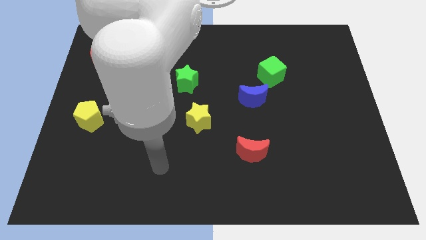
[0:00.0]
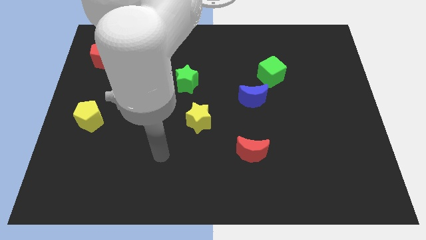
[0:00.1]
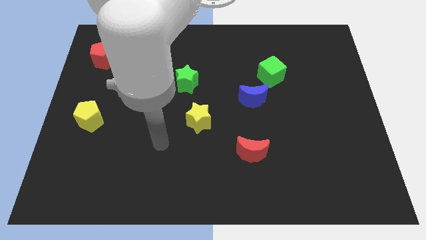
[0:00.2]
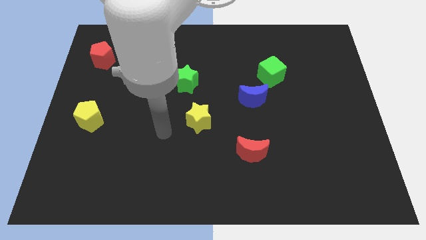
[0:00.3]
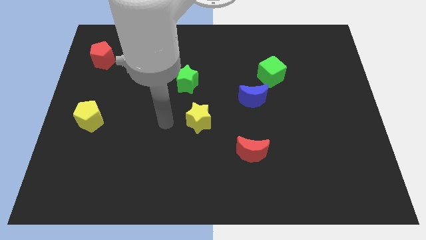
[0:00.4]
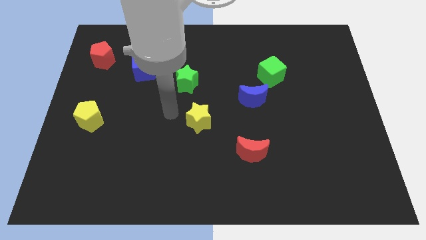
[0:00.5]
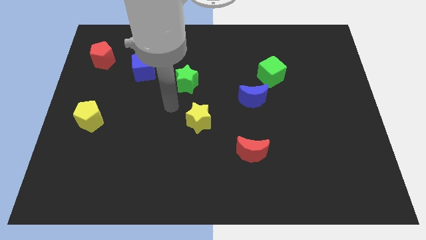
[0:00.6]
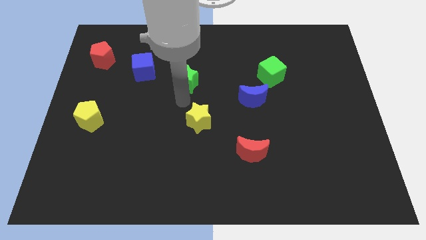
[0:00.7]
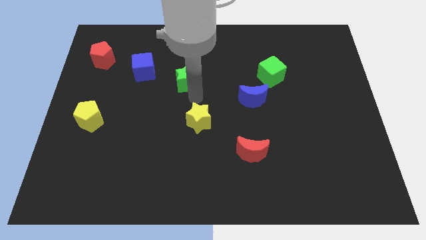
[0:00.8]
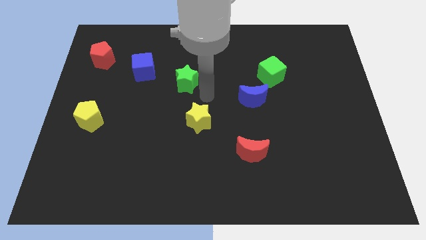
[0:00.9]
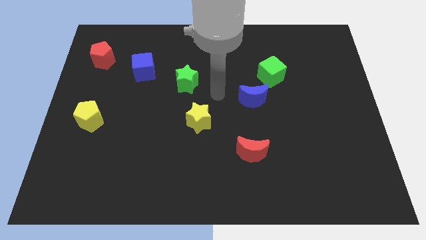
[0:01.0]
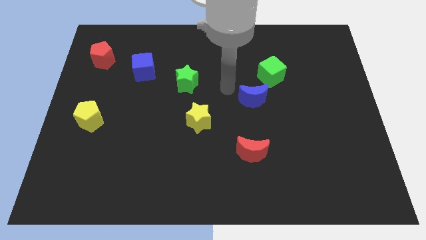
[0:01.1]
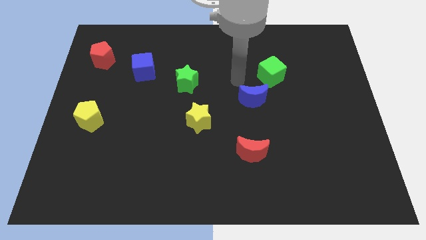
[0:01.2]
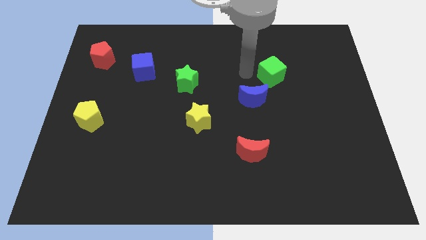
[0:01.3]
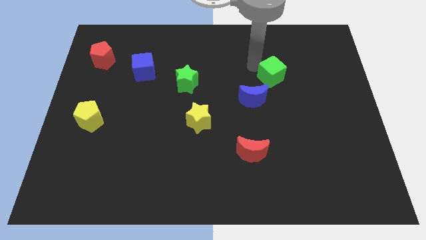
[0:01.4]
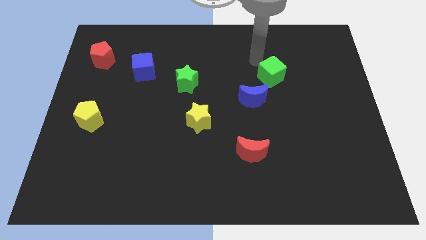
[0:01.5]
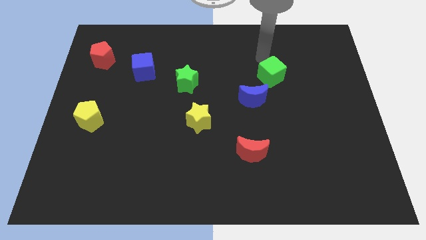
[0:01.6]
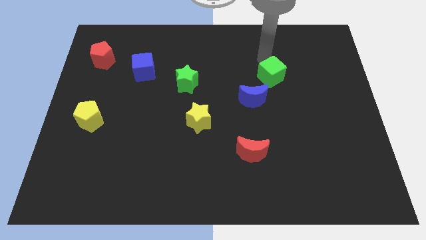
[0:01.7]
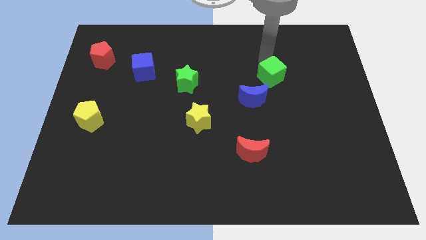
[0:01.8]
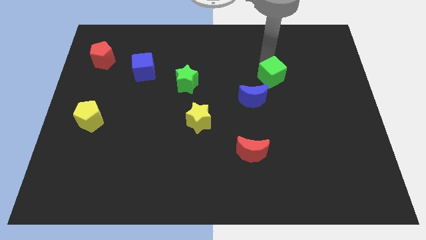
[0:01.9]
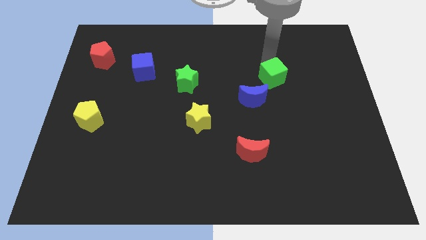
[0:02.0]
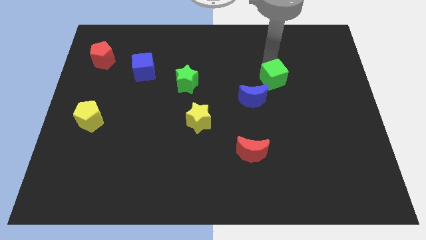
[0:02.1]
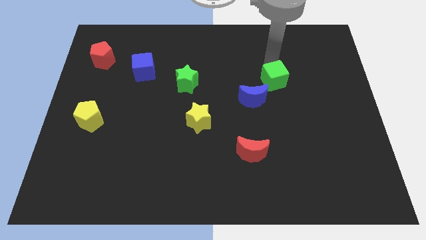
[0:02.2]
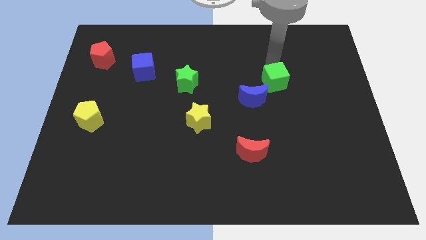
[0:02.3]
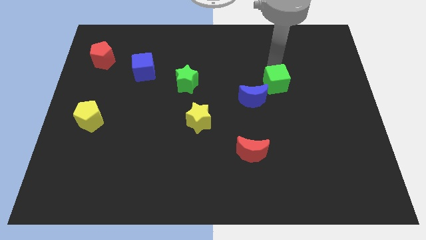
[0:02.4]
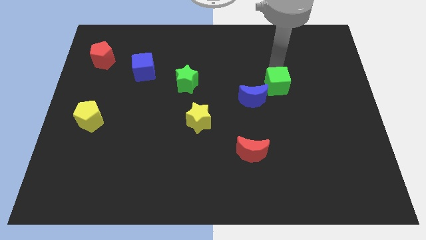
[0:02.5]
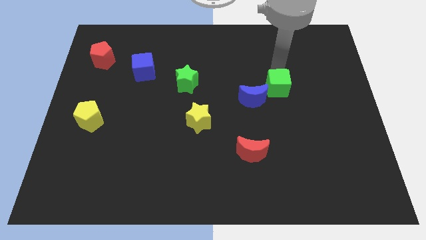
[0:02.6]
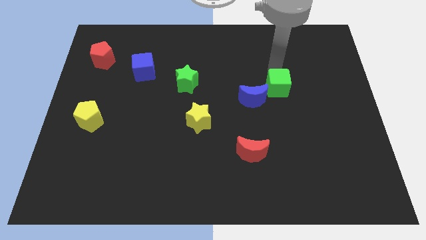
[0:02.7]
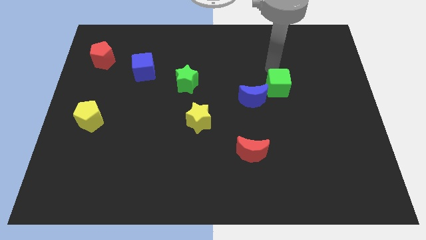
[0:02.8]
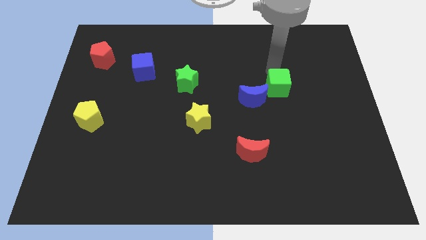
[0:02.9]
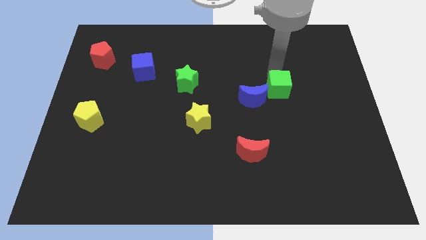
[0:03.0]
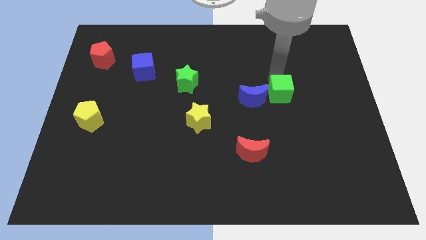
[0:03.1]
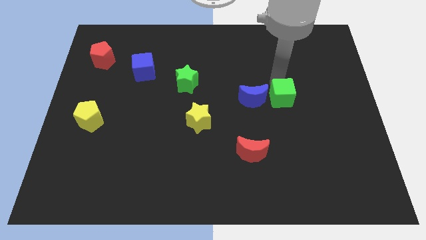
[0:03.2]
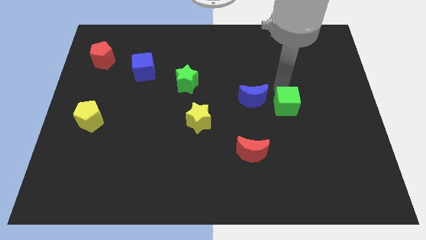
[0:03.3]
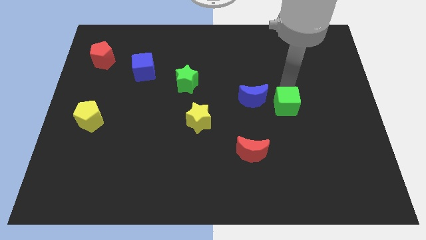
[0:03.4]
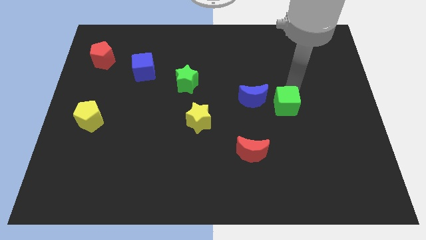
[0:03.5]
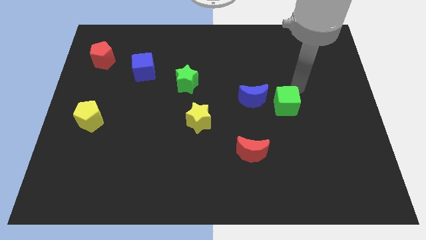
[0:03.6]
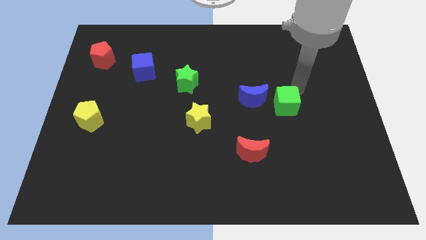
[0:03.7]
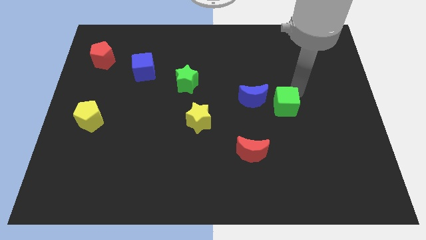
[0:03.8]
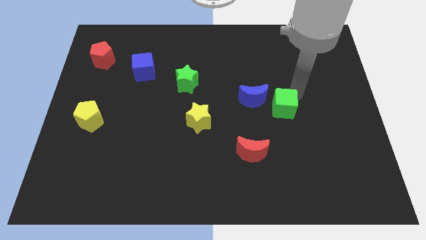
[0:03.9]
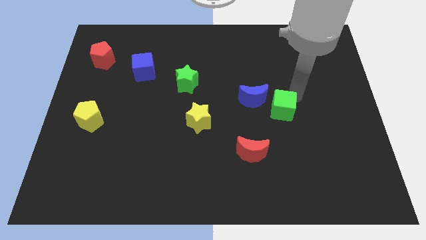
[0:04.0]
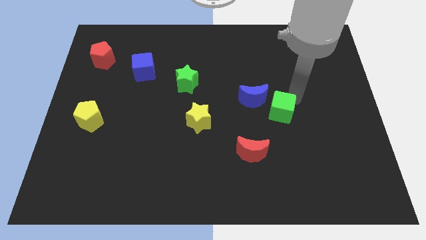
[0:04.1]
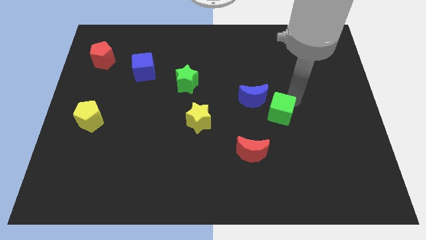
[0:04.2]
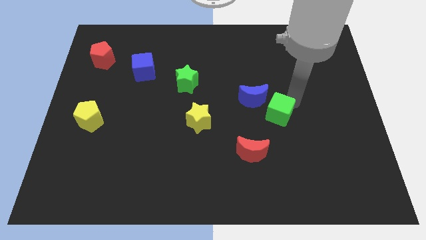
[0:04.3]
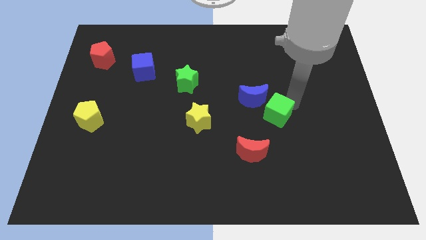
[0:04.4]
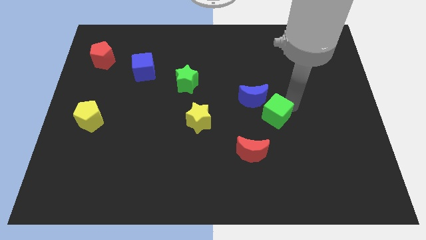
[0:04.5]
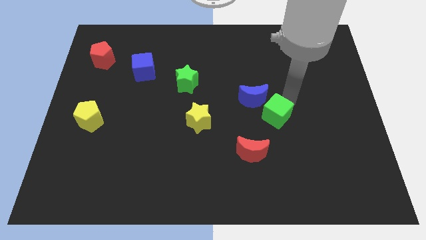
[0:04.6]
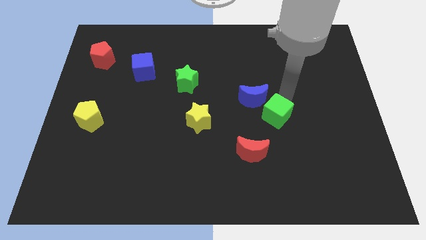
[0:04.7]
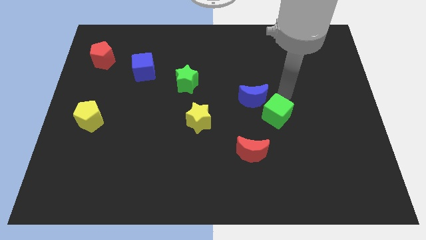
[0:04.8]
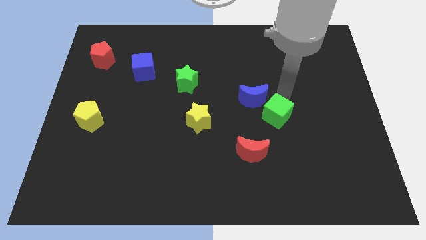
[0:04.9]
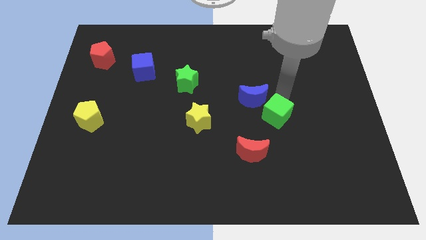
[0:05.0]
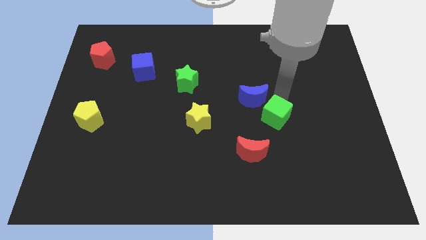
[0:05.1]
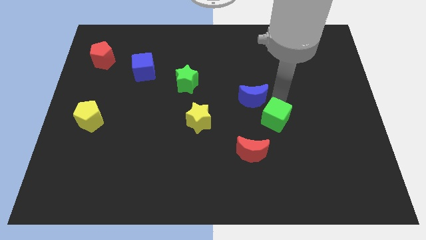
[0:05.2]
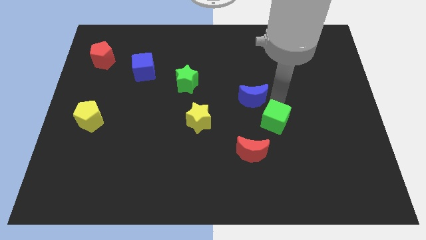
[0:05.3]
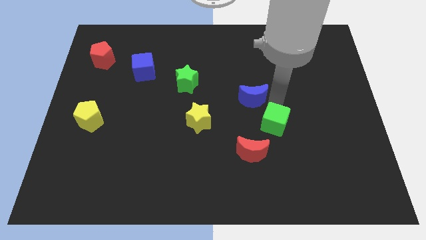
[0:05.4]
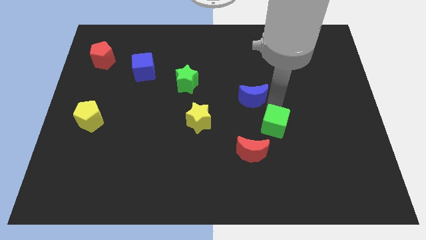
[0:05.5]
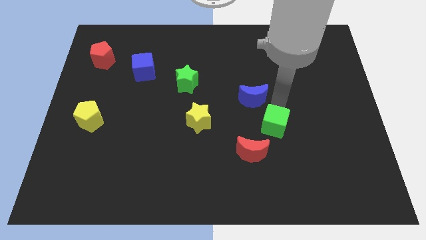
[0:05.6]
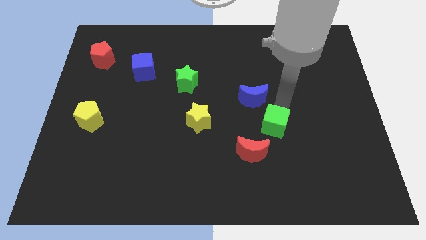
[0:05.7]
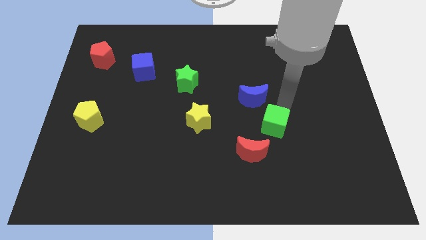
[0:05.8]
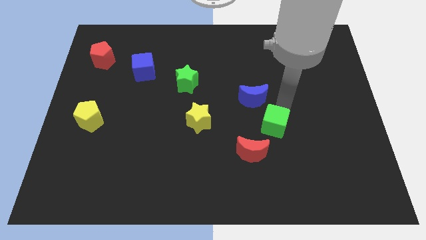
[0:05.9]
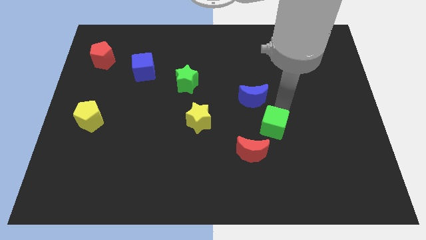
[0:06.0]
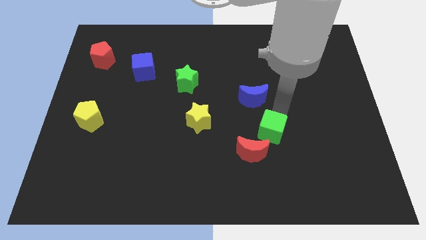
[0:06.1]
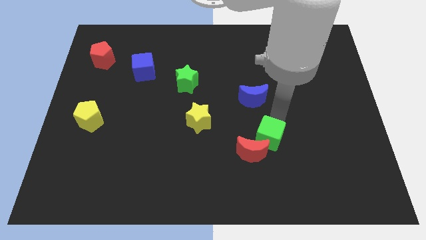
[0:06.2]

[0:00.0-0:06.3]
slide the green cube next to the red moon
